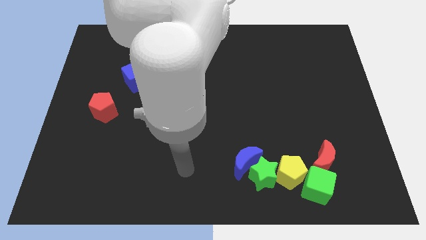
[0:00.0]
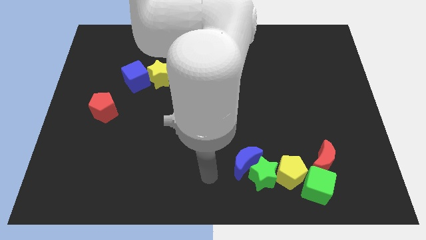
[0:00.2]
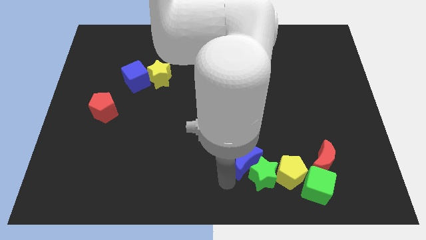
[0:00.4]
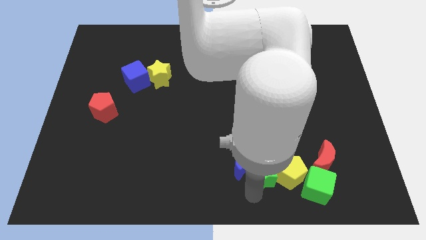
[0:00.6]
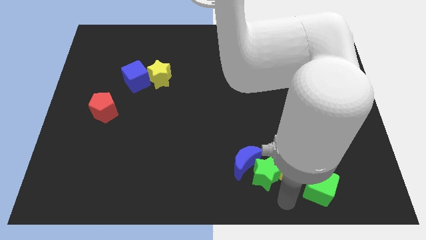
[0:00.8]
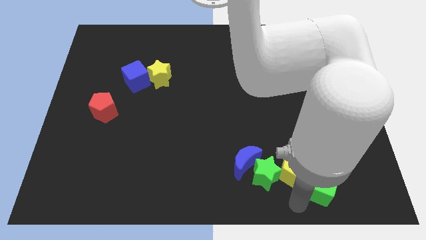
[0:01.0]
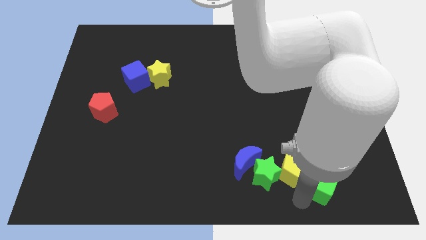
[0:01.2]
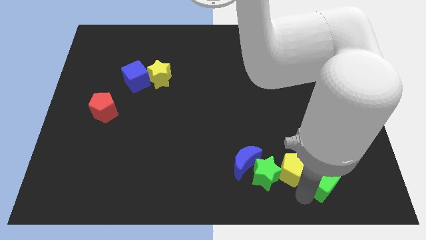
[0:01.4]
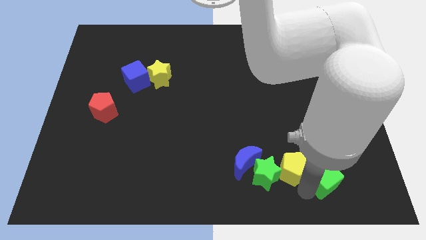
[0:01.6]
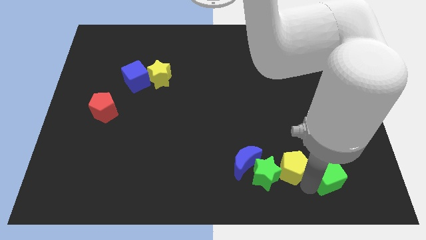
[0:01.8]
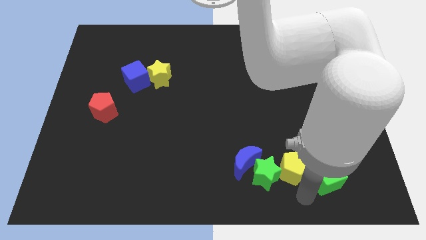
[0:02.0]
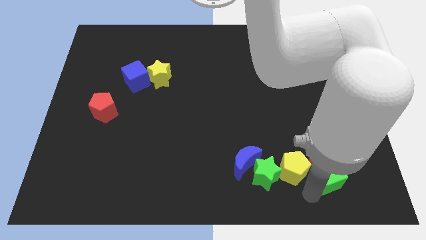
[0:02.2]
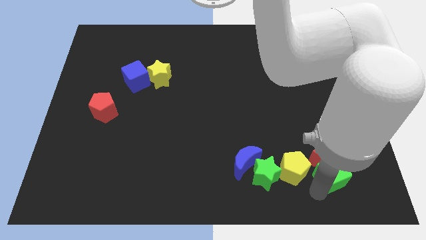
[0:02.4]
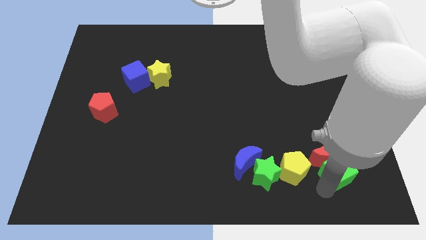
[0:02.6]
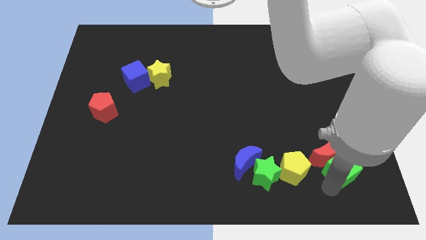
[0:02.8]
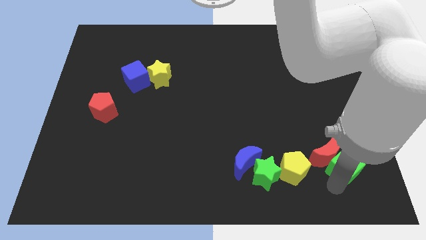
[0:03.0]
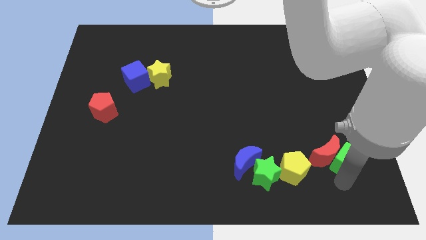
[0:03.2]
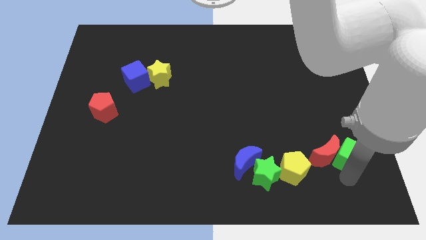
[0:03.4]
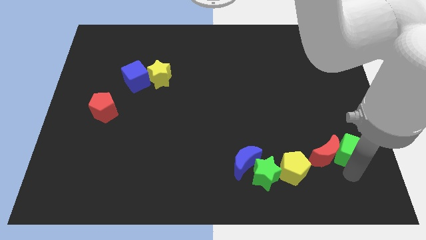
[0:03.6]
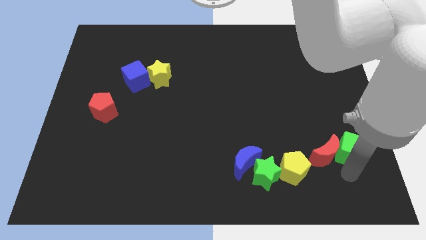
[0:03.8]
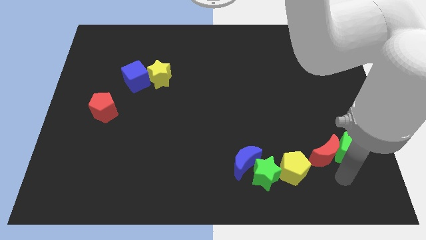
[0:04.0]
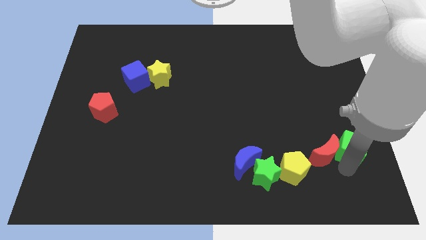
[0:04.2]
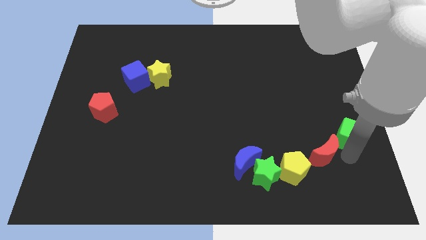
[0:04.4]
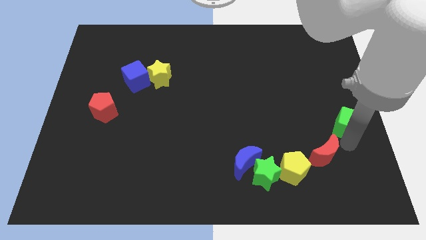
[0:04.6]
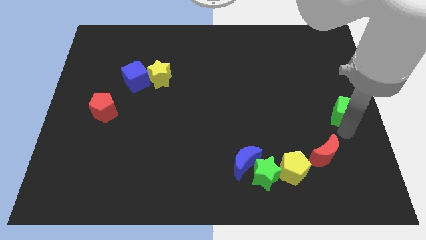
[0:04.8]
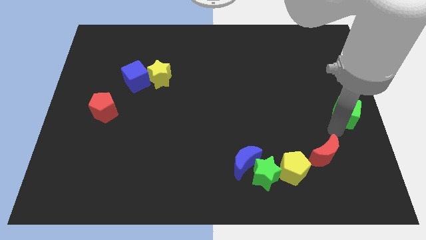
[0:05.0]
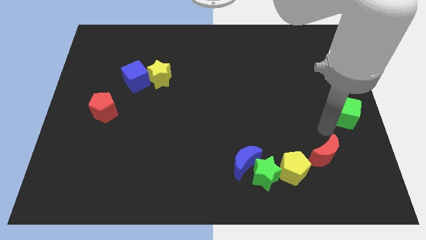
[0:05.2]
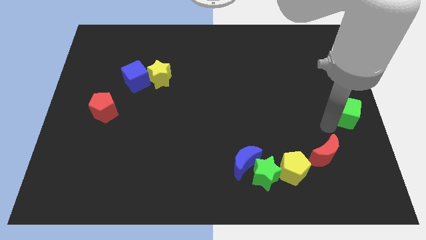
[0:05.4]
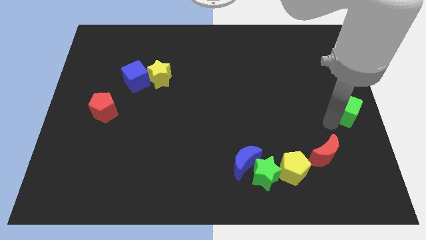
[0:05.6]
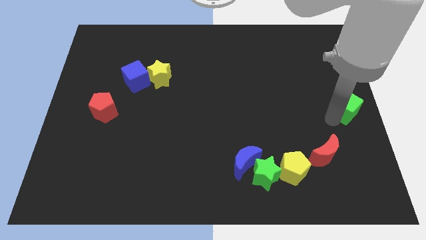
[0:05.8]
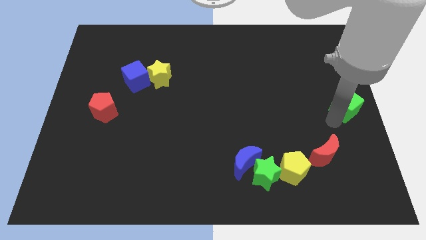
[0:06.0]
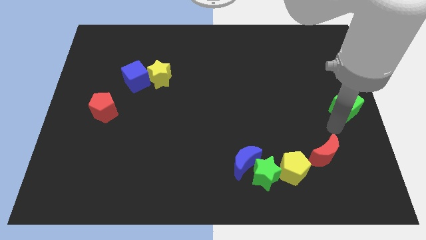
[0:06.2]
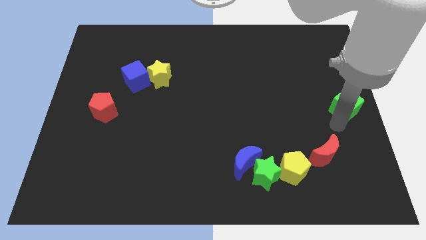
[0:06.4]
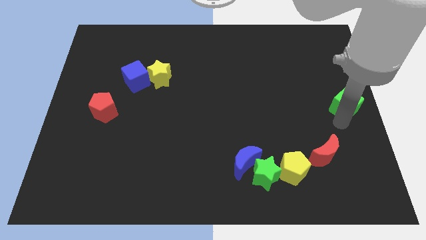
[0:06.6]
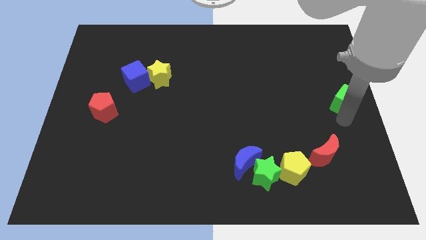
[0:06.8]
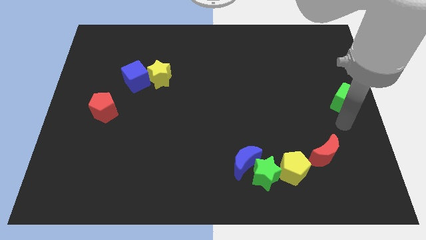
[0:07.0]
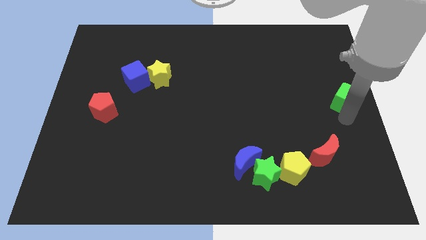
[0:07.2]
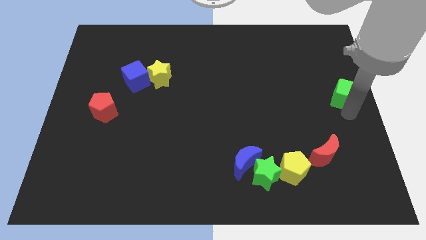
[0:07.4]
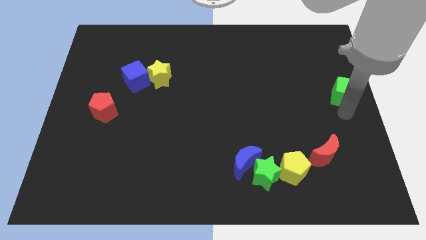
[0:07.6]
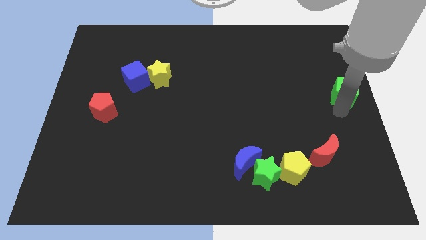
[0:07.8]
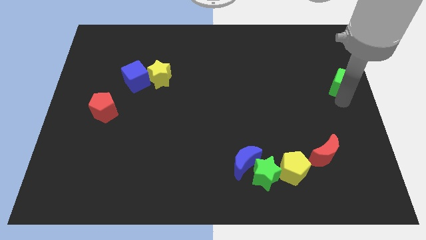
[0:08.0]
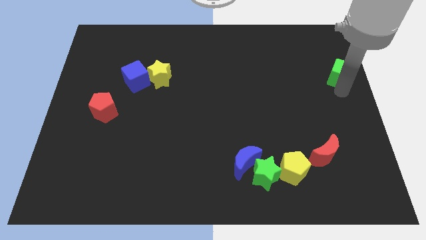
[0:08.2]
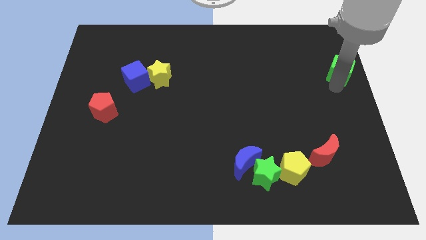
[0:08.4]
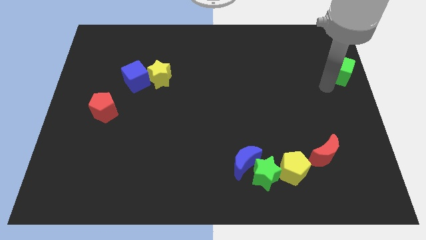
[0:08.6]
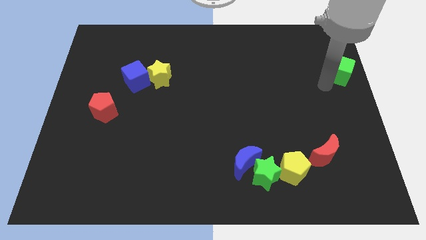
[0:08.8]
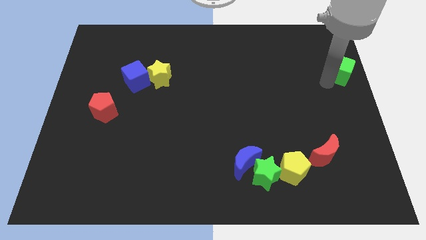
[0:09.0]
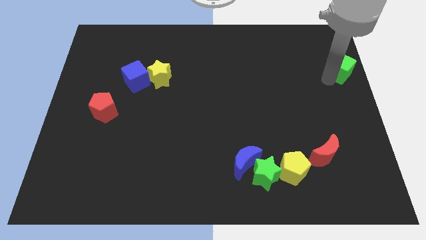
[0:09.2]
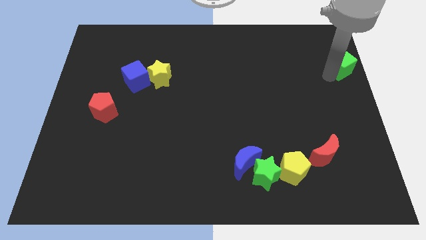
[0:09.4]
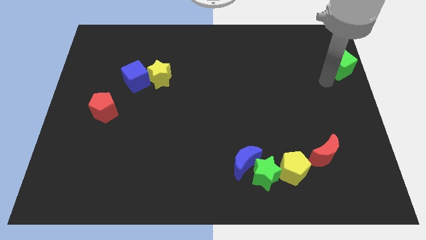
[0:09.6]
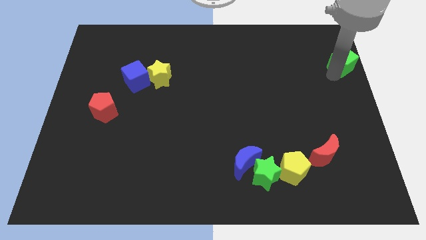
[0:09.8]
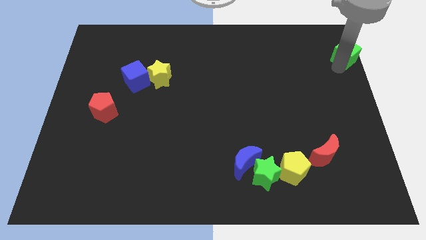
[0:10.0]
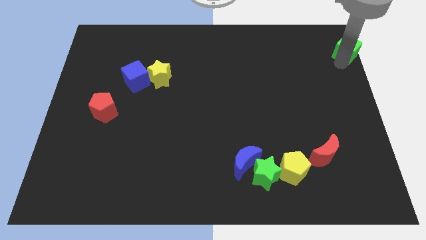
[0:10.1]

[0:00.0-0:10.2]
push the green cube to the top right

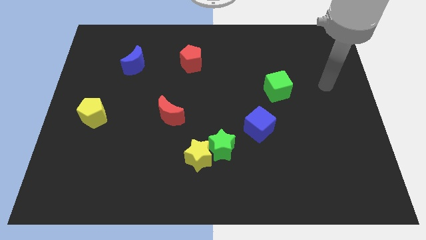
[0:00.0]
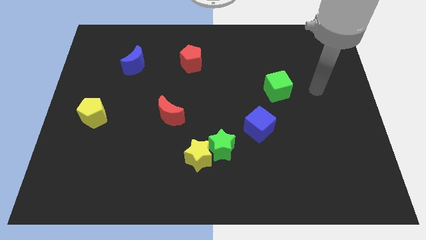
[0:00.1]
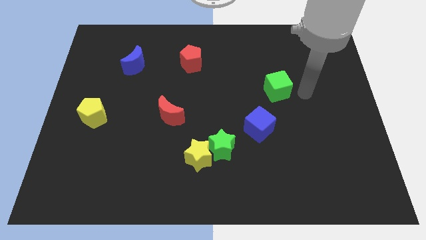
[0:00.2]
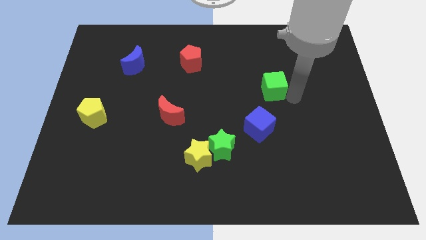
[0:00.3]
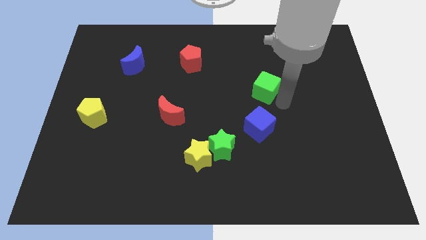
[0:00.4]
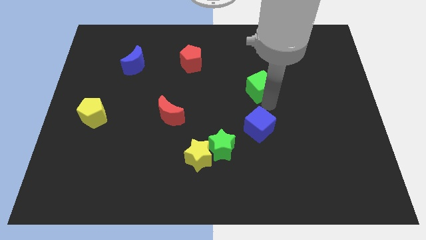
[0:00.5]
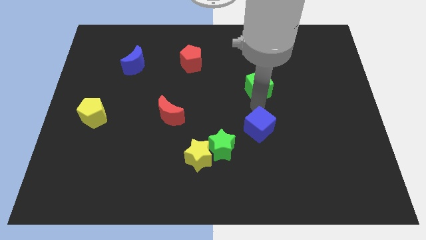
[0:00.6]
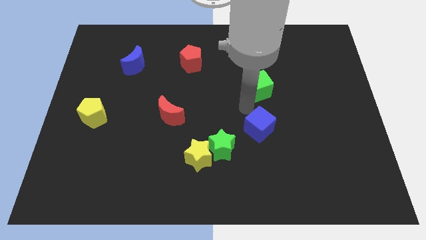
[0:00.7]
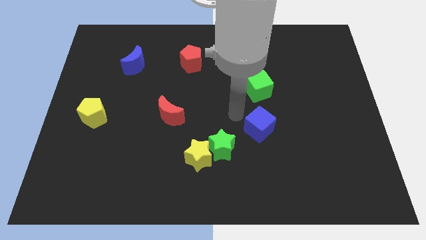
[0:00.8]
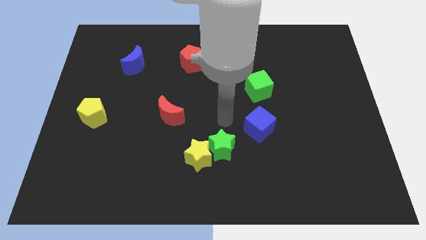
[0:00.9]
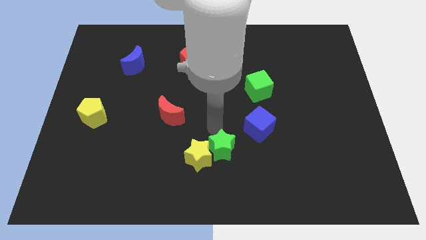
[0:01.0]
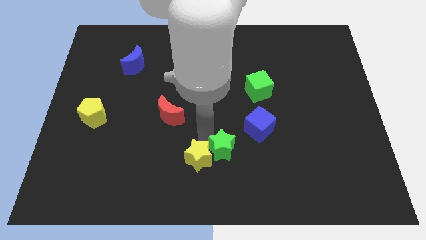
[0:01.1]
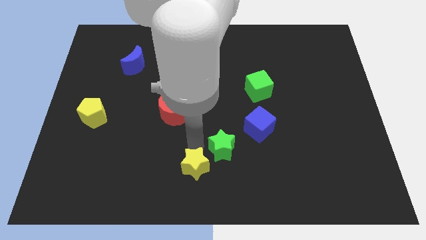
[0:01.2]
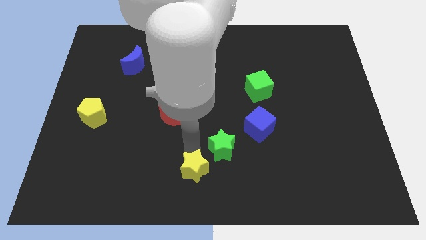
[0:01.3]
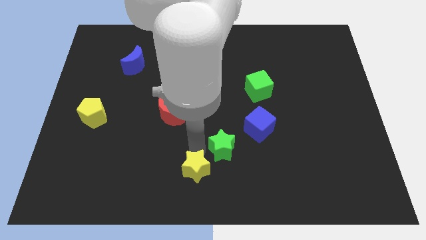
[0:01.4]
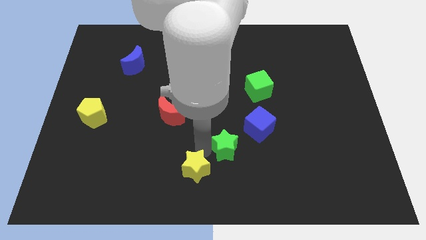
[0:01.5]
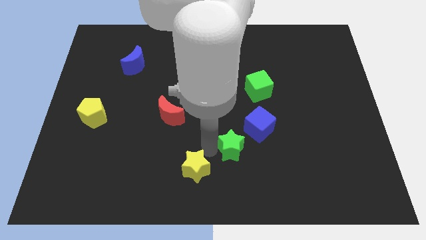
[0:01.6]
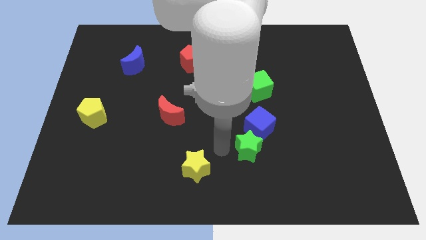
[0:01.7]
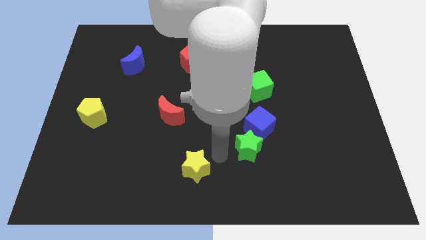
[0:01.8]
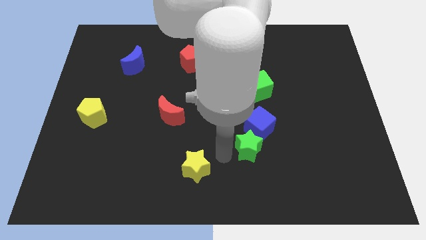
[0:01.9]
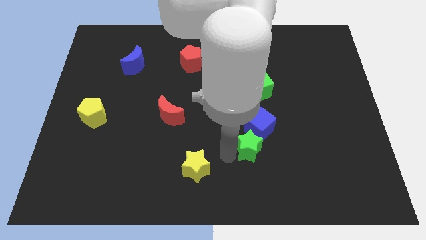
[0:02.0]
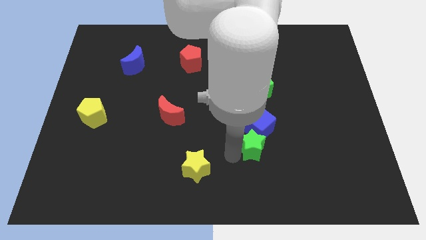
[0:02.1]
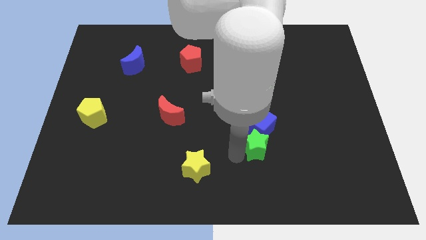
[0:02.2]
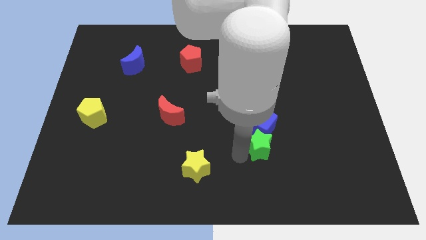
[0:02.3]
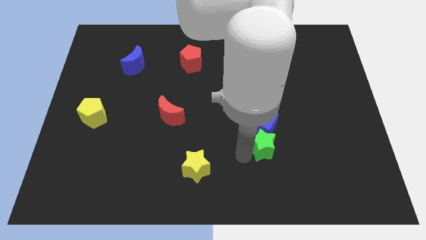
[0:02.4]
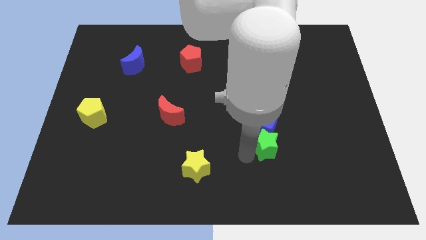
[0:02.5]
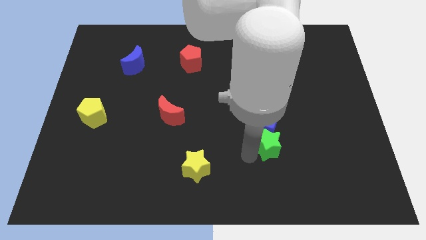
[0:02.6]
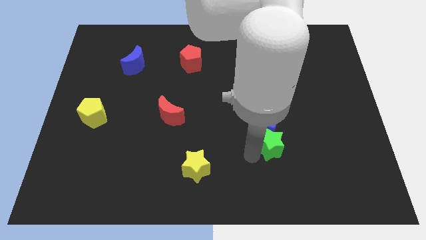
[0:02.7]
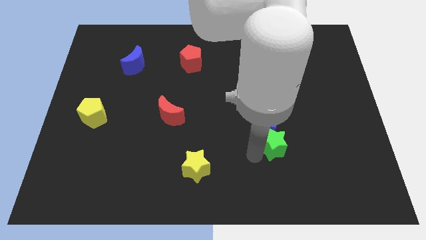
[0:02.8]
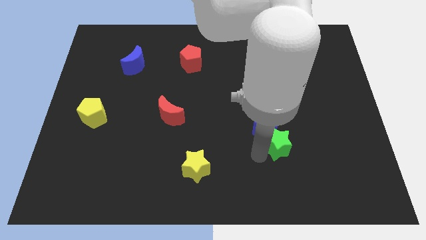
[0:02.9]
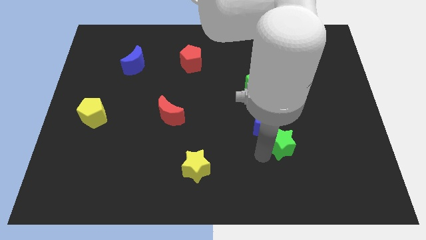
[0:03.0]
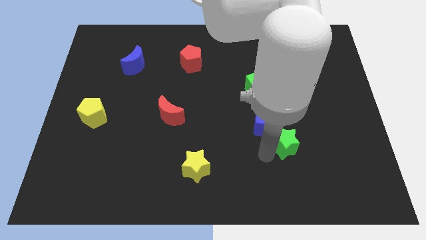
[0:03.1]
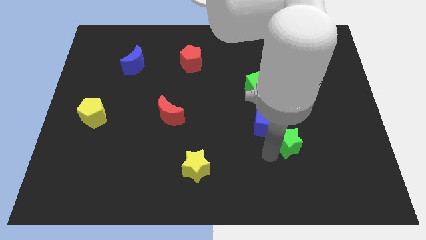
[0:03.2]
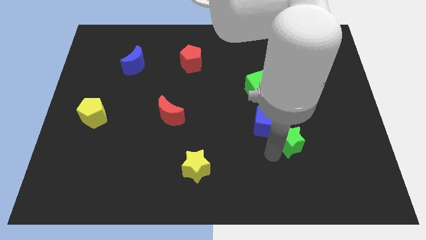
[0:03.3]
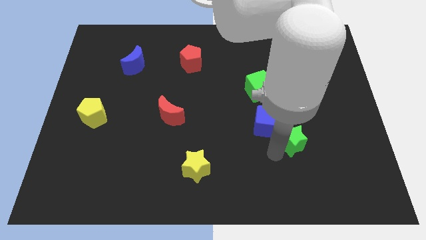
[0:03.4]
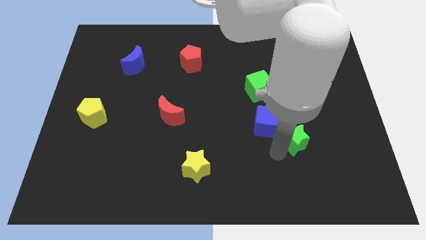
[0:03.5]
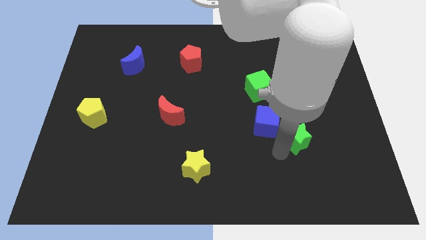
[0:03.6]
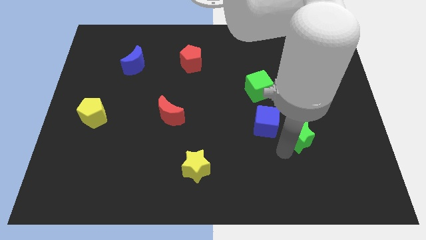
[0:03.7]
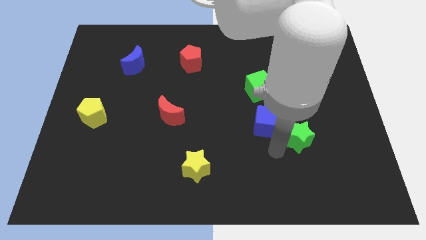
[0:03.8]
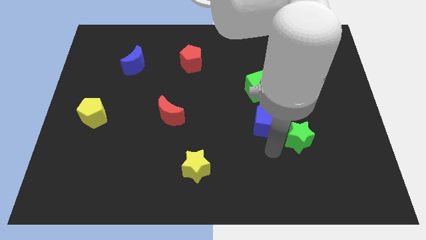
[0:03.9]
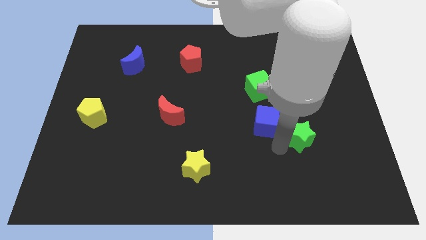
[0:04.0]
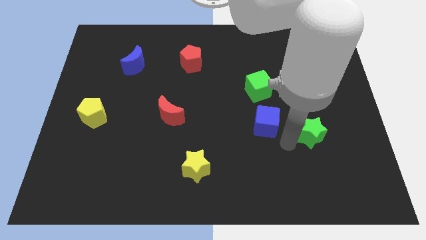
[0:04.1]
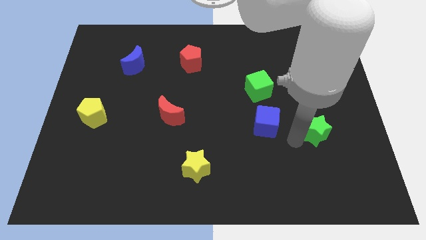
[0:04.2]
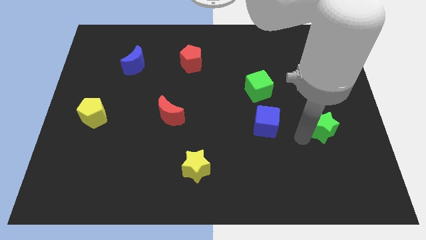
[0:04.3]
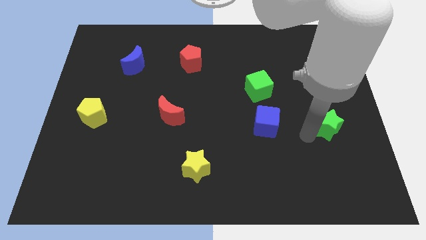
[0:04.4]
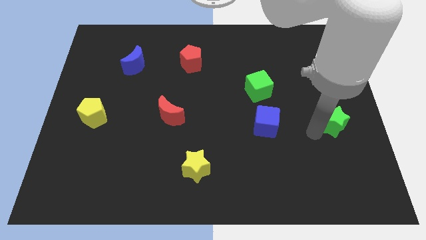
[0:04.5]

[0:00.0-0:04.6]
put the green star to the right side of the board
